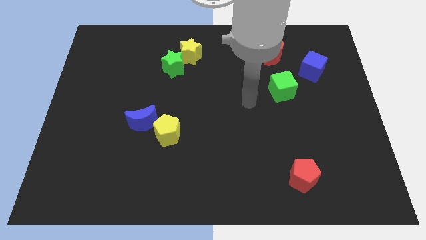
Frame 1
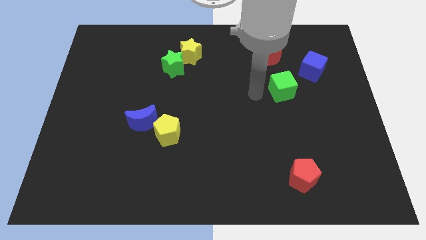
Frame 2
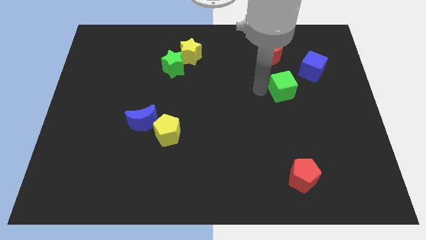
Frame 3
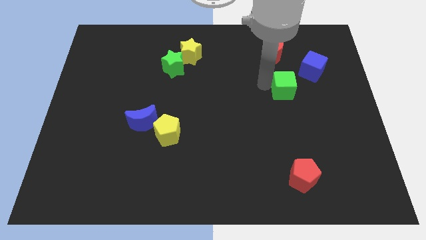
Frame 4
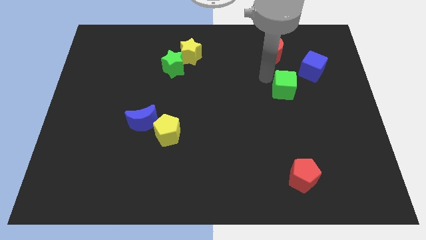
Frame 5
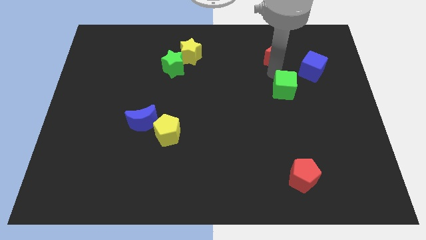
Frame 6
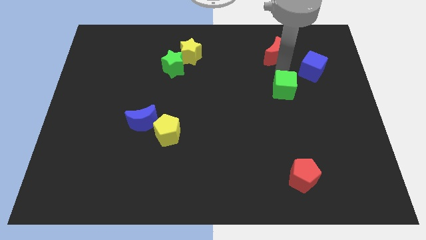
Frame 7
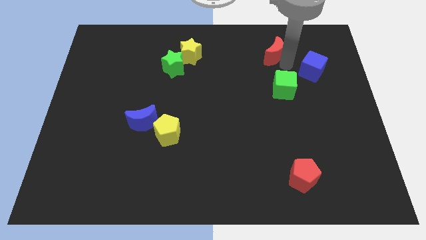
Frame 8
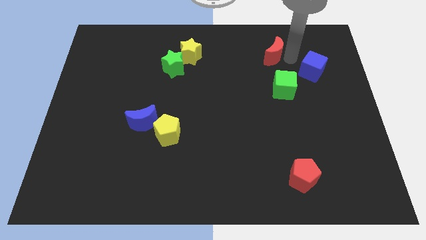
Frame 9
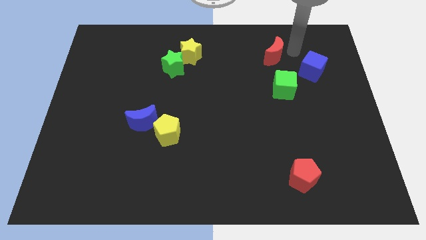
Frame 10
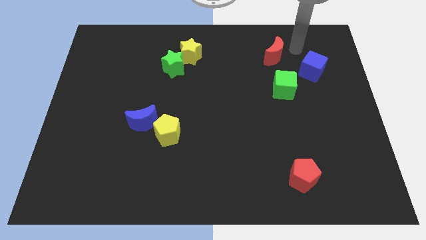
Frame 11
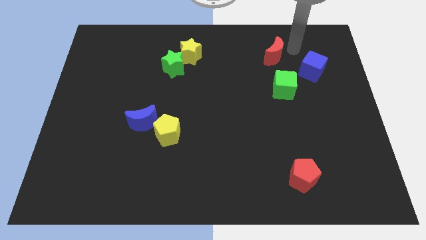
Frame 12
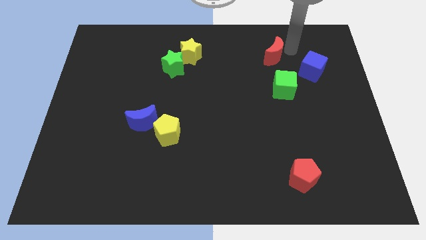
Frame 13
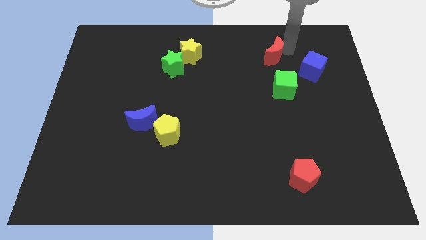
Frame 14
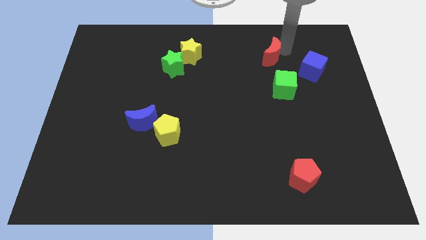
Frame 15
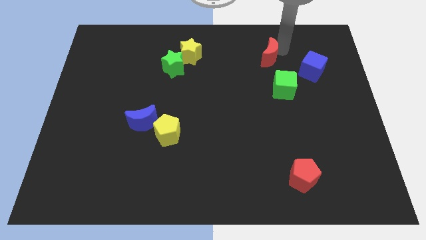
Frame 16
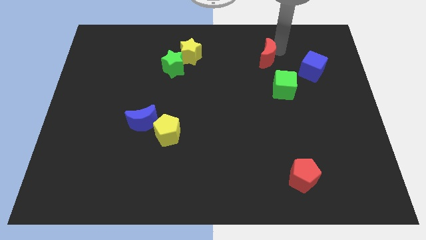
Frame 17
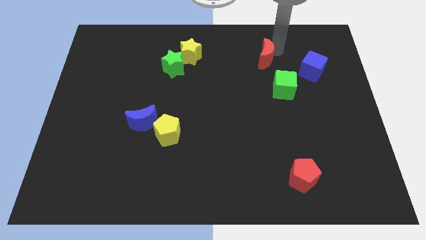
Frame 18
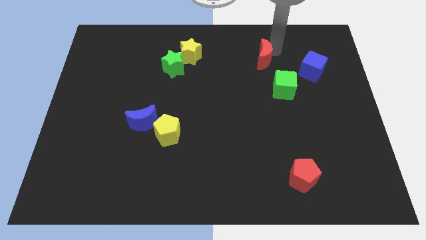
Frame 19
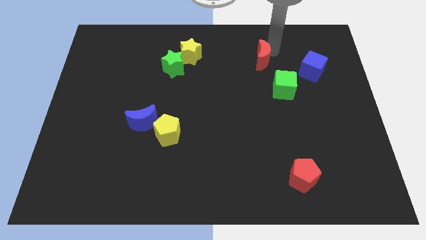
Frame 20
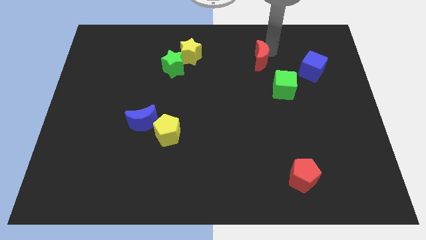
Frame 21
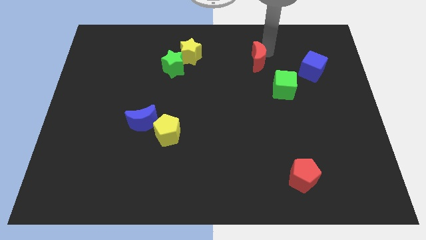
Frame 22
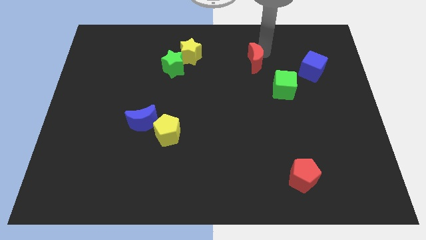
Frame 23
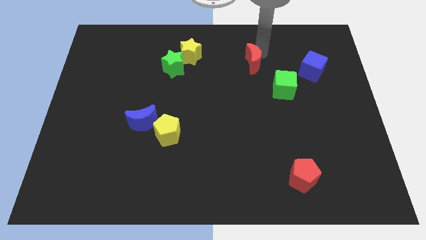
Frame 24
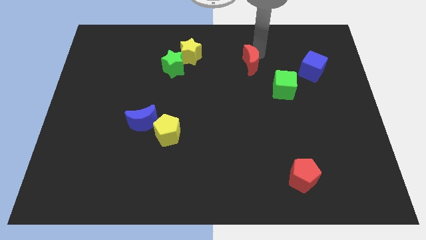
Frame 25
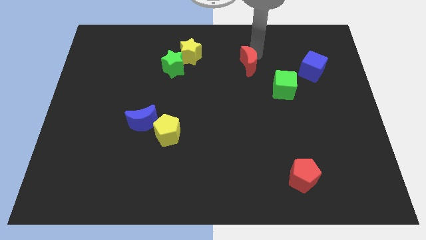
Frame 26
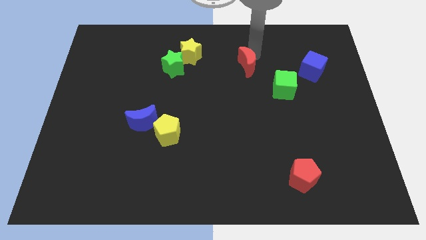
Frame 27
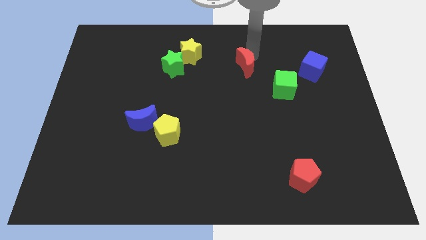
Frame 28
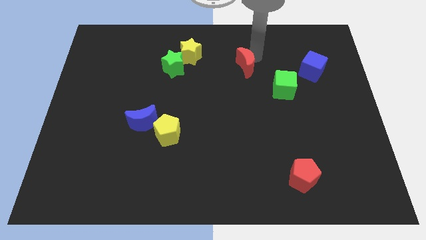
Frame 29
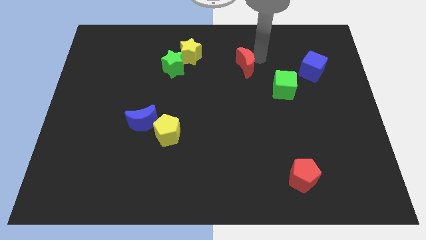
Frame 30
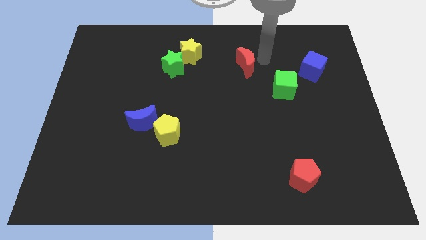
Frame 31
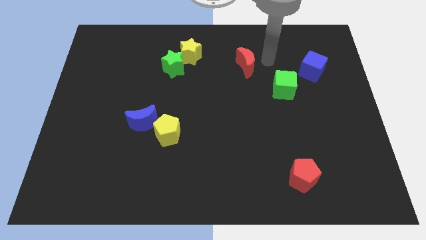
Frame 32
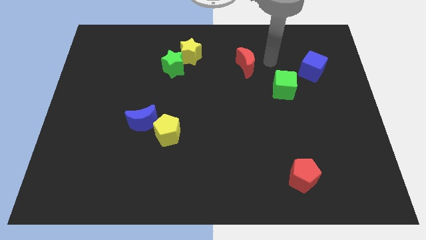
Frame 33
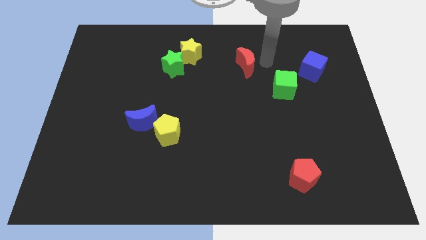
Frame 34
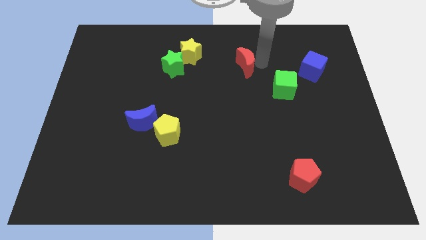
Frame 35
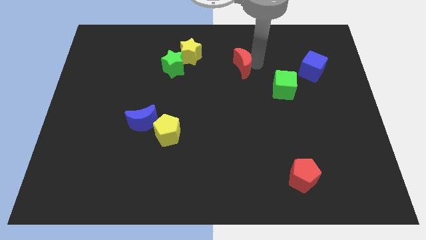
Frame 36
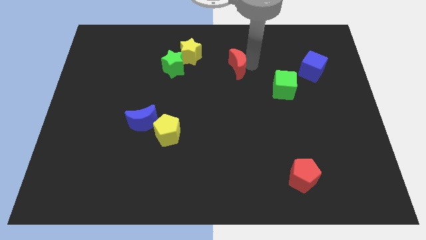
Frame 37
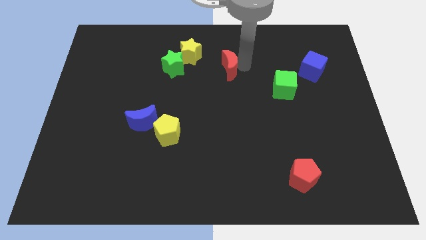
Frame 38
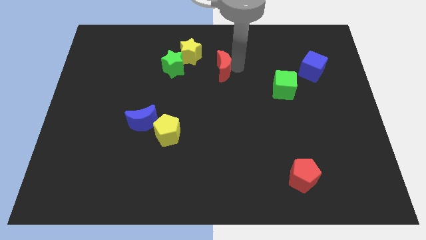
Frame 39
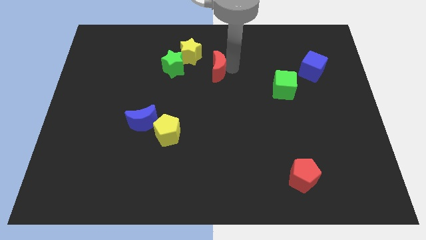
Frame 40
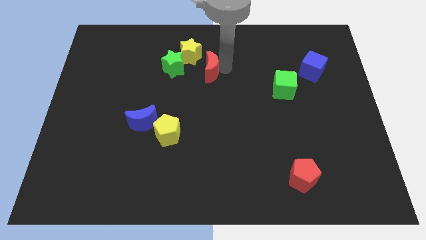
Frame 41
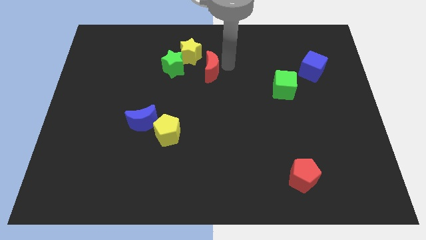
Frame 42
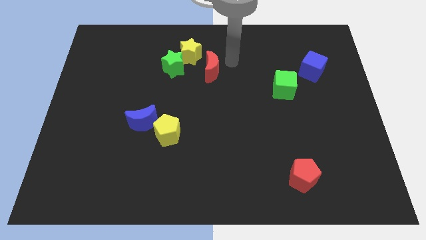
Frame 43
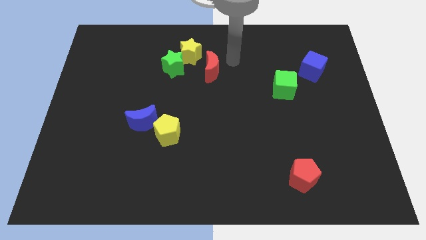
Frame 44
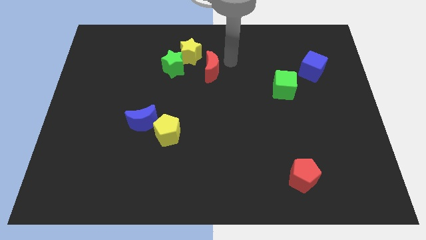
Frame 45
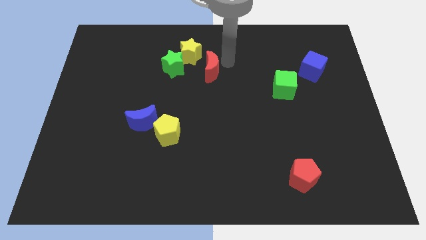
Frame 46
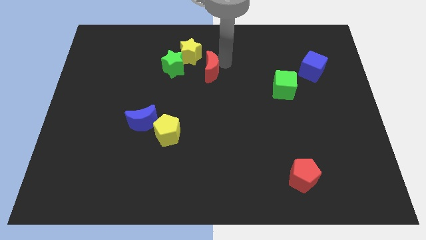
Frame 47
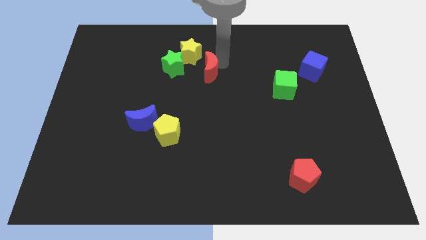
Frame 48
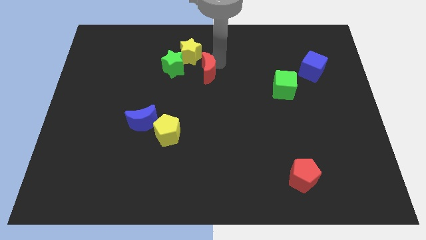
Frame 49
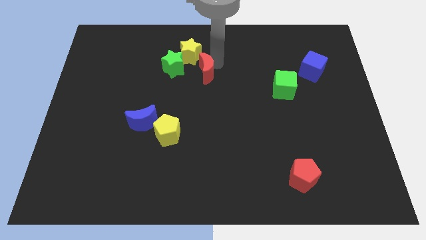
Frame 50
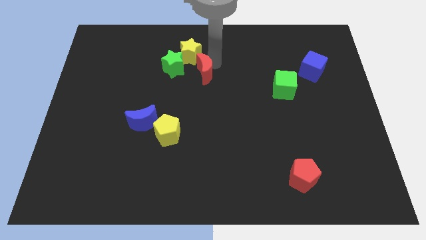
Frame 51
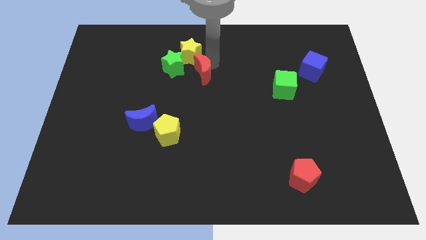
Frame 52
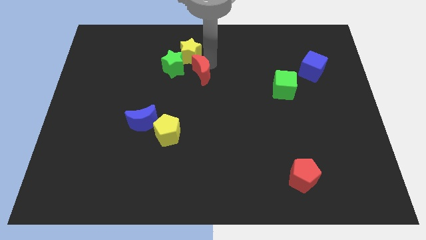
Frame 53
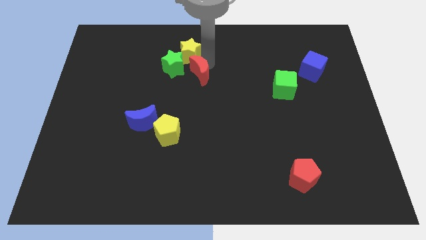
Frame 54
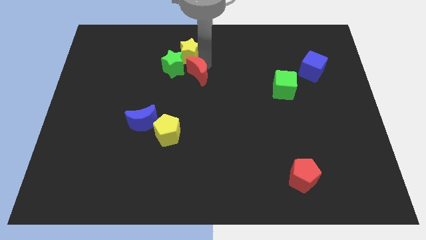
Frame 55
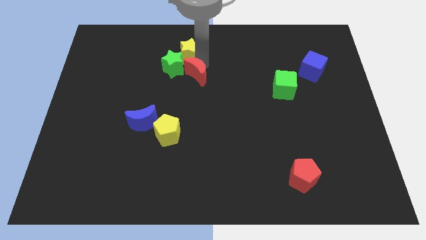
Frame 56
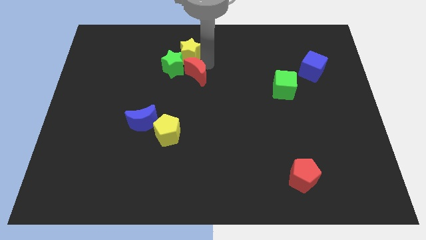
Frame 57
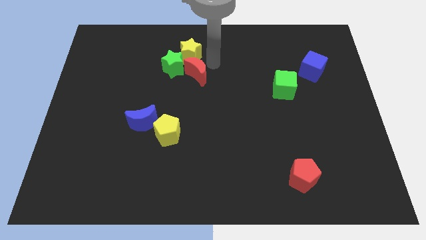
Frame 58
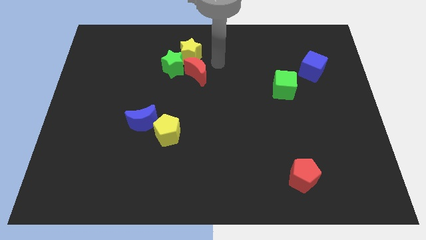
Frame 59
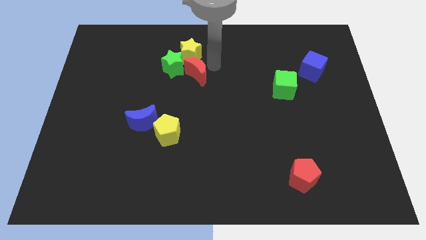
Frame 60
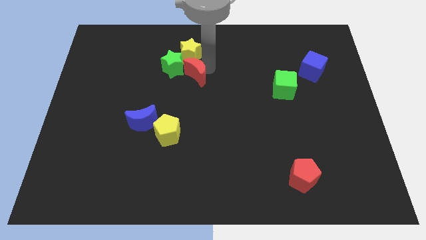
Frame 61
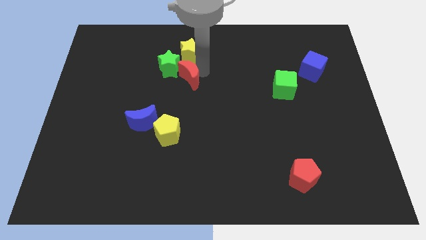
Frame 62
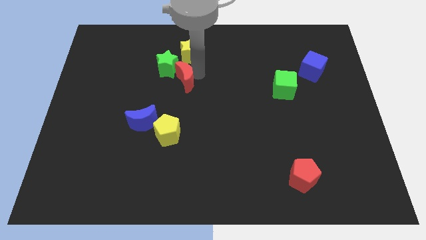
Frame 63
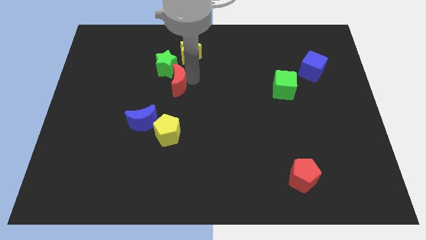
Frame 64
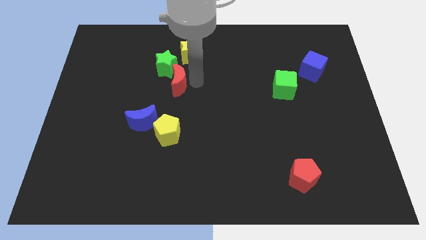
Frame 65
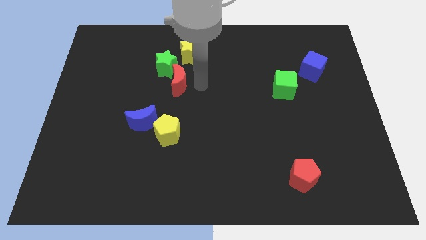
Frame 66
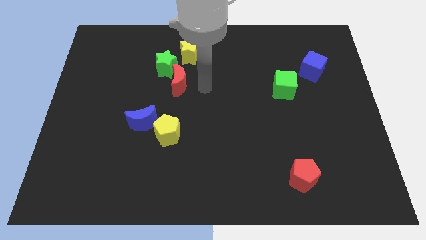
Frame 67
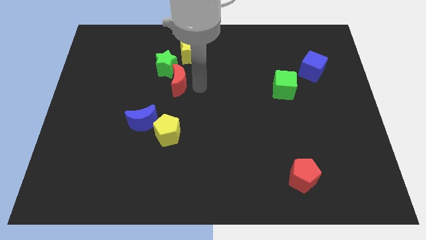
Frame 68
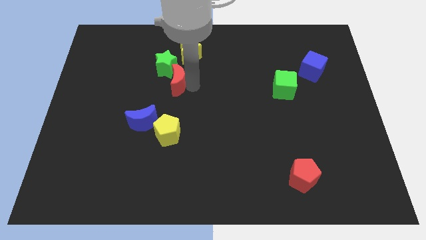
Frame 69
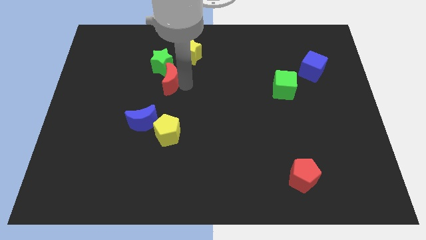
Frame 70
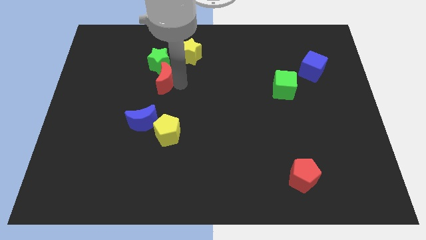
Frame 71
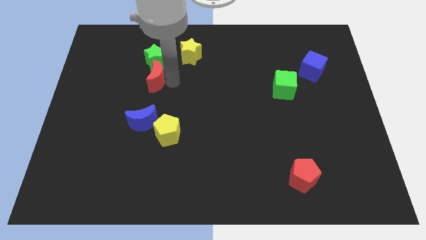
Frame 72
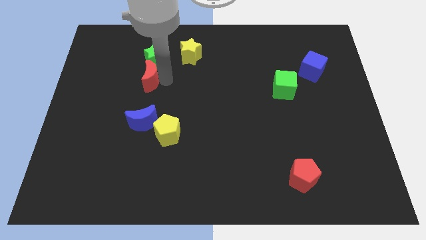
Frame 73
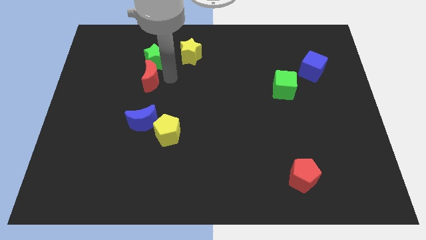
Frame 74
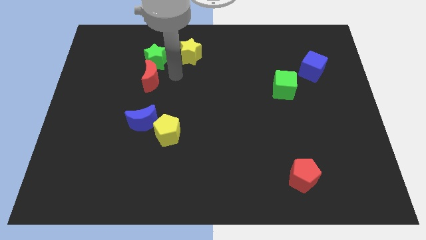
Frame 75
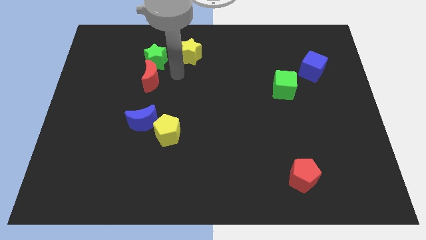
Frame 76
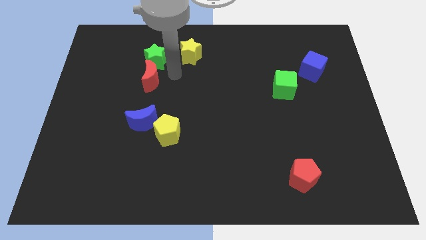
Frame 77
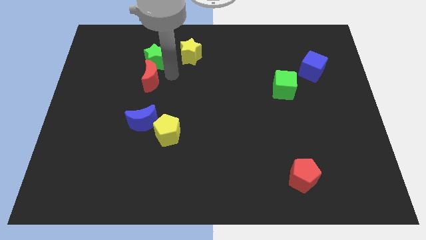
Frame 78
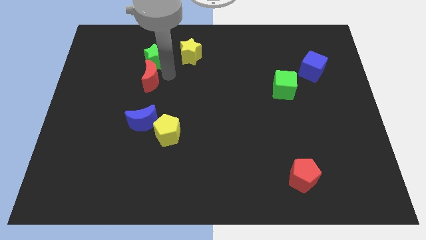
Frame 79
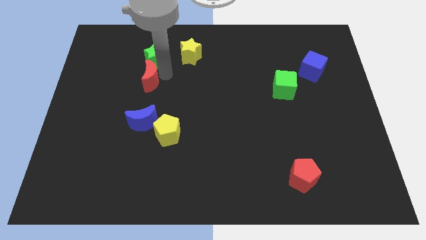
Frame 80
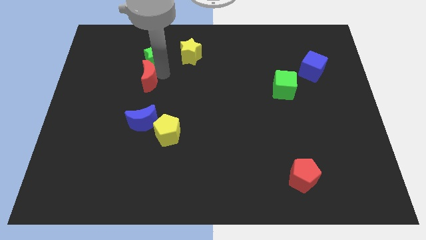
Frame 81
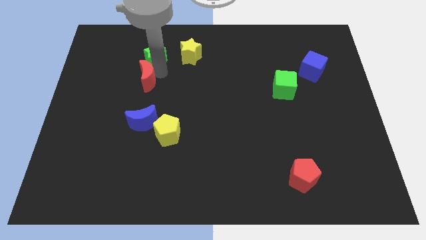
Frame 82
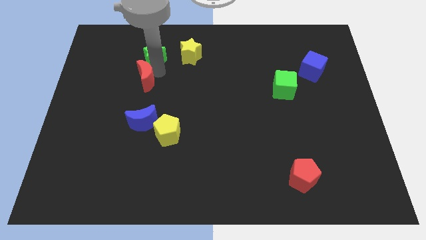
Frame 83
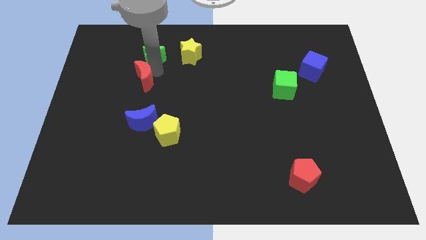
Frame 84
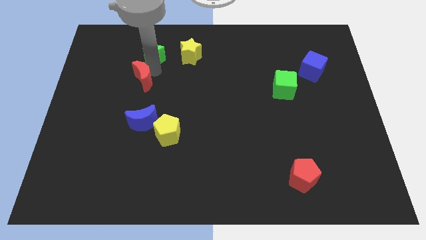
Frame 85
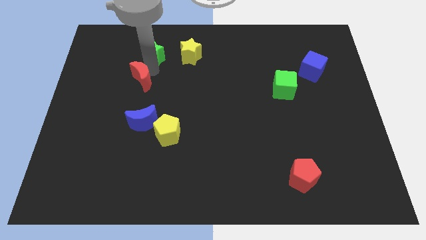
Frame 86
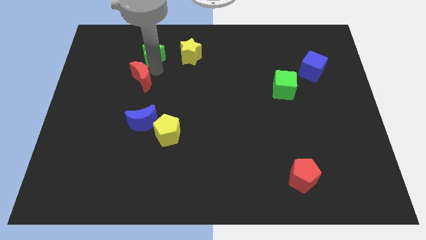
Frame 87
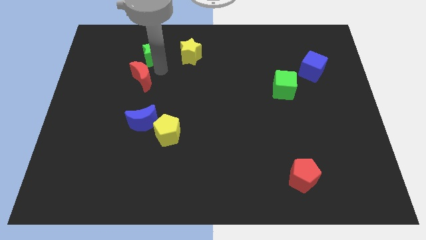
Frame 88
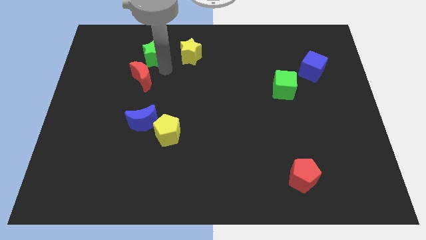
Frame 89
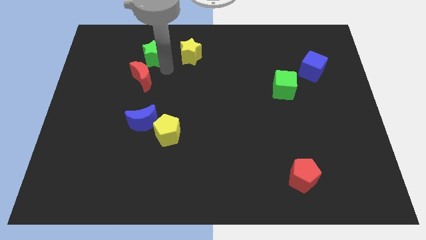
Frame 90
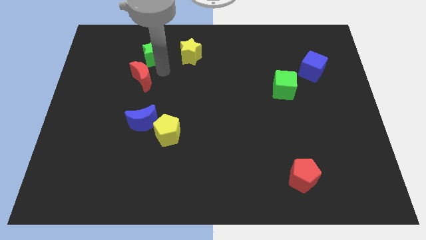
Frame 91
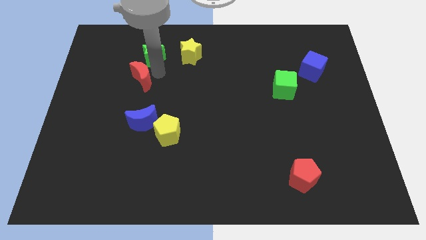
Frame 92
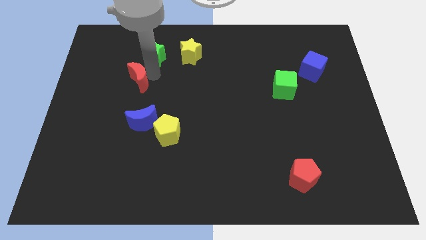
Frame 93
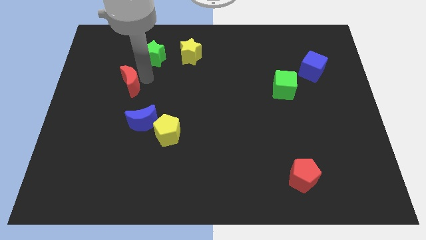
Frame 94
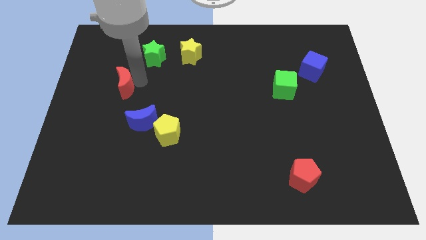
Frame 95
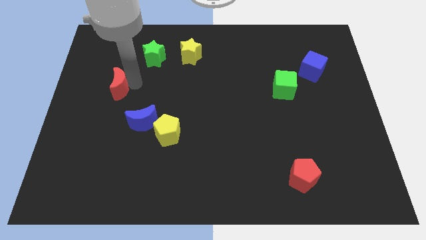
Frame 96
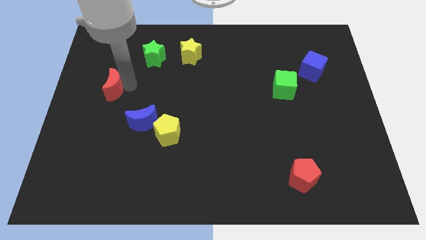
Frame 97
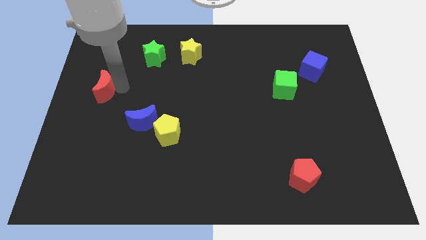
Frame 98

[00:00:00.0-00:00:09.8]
slide the red moon to the center left
